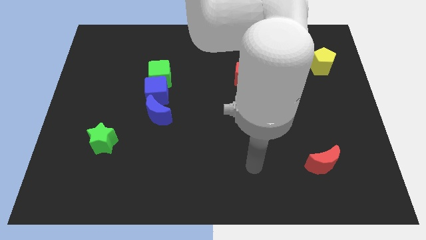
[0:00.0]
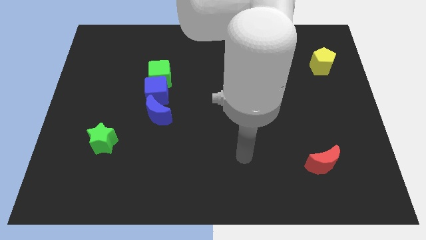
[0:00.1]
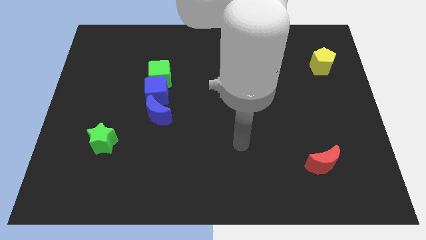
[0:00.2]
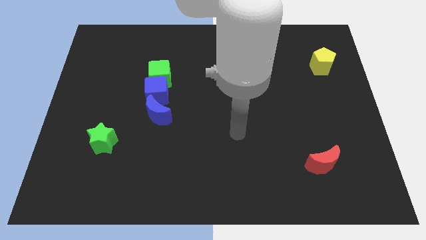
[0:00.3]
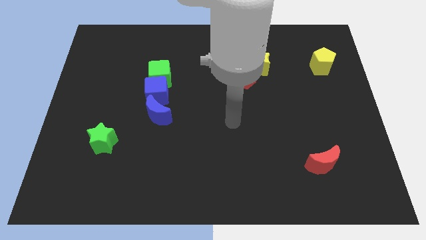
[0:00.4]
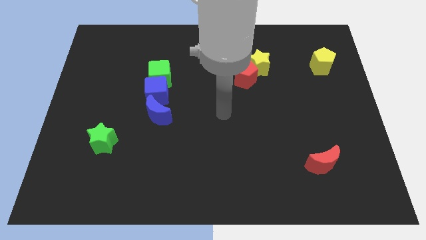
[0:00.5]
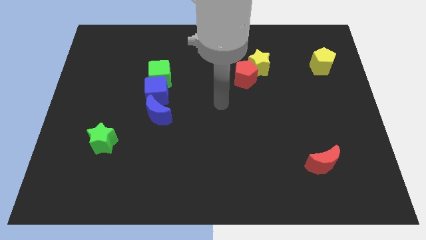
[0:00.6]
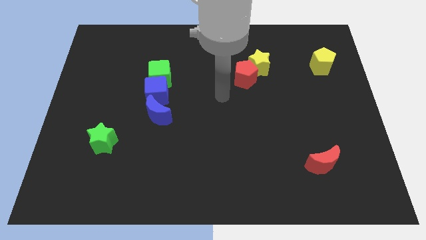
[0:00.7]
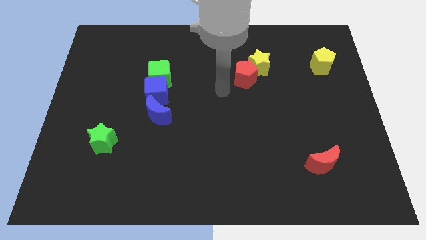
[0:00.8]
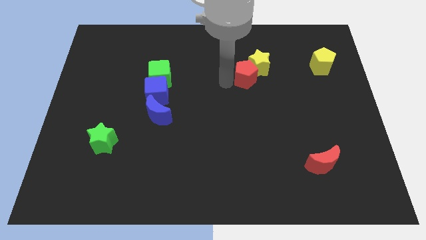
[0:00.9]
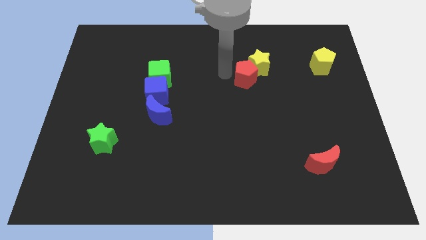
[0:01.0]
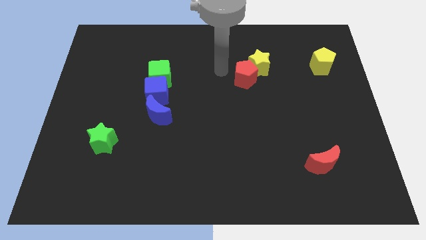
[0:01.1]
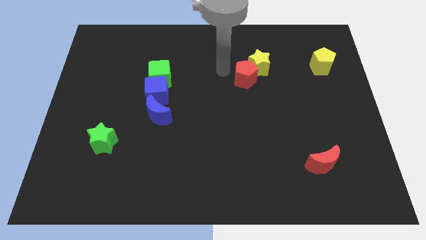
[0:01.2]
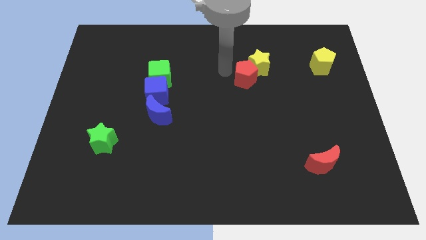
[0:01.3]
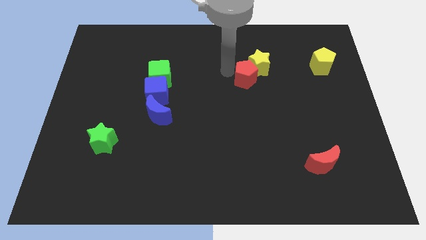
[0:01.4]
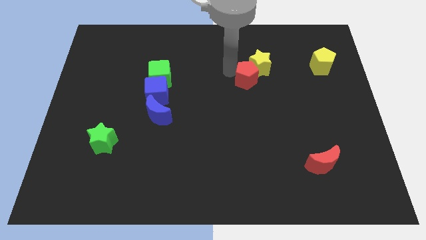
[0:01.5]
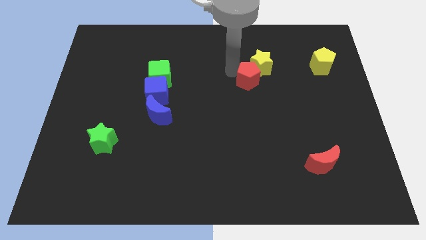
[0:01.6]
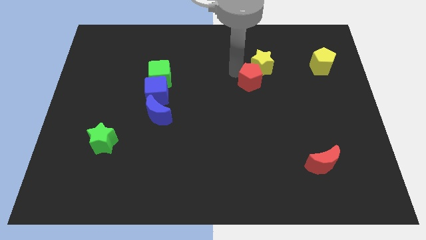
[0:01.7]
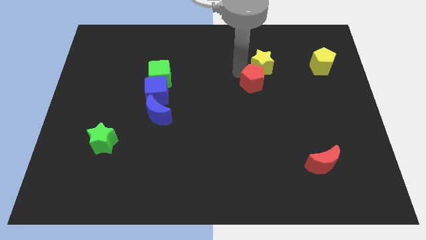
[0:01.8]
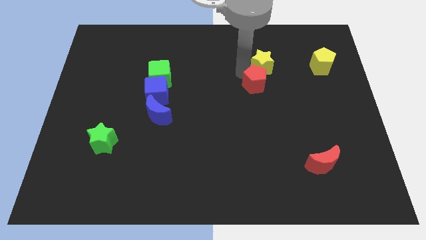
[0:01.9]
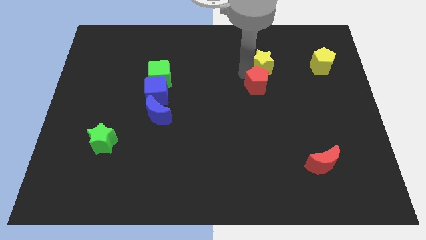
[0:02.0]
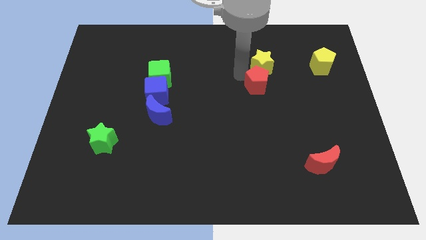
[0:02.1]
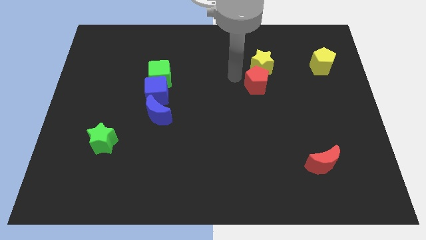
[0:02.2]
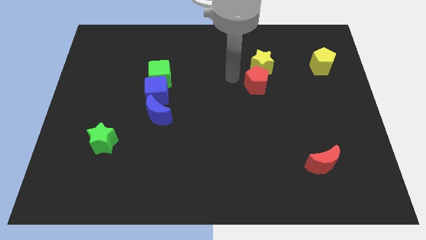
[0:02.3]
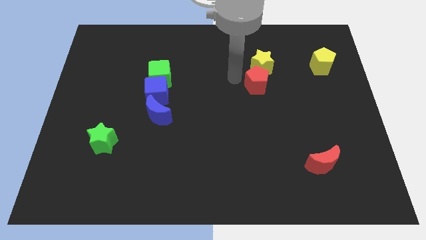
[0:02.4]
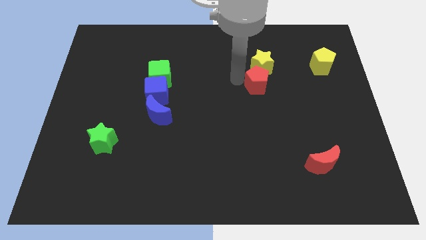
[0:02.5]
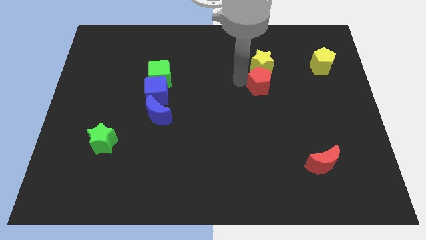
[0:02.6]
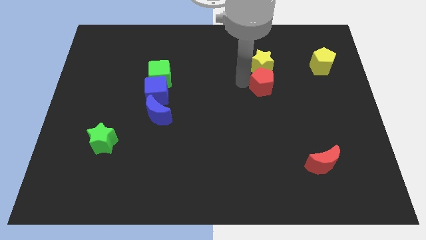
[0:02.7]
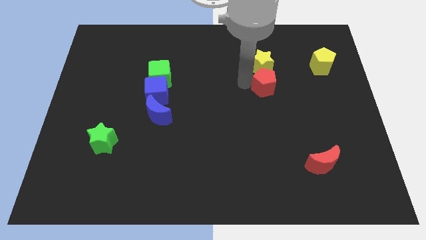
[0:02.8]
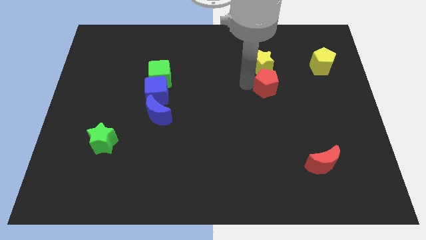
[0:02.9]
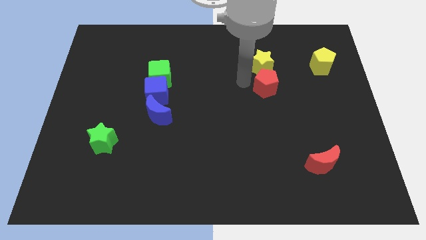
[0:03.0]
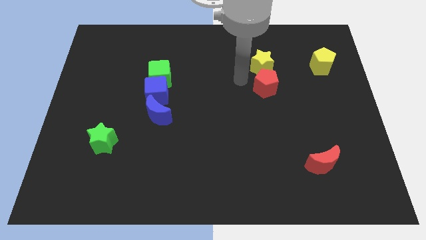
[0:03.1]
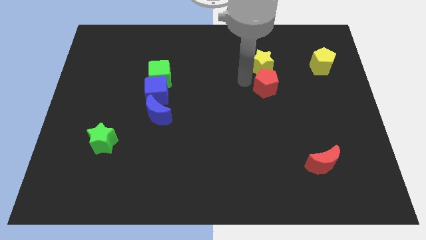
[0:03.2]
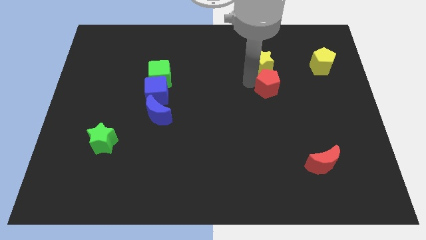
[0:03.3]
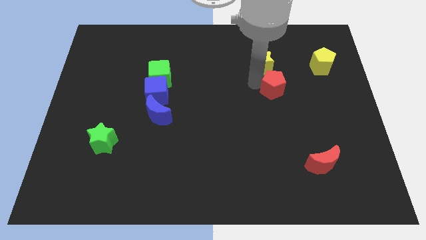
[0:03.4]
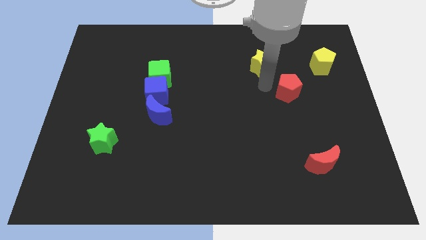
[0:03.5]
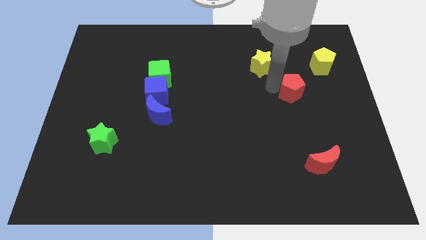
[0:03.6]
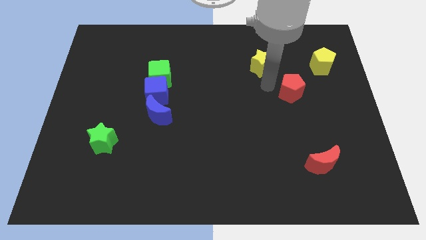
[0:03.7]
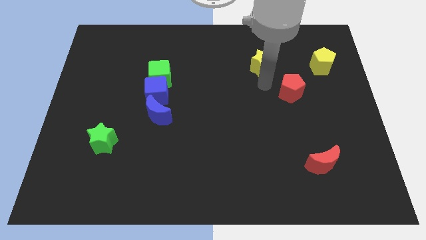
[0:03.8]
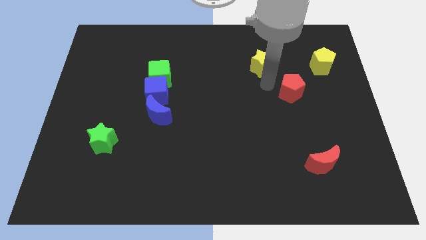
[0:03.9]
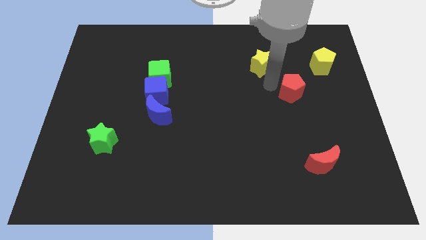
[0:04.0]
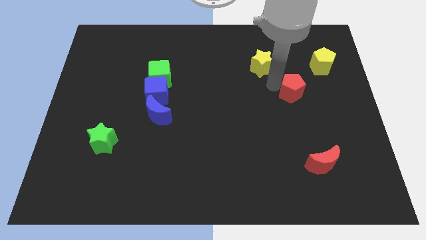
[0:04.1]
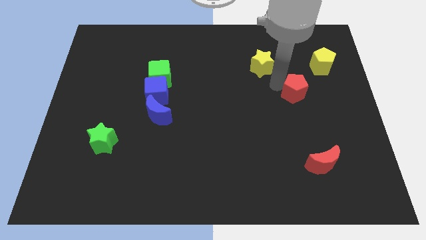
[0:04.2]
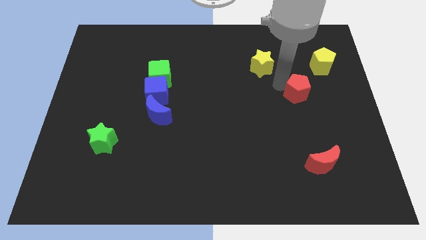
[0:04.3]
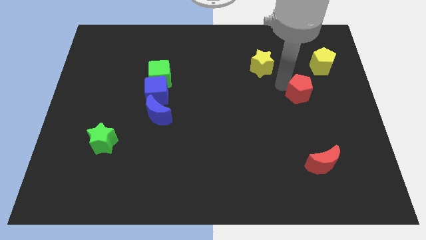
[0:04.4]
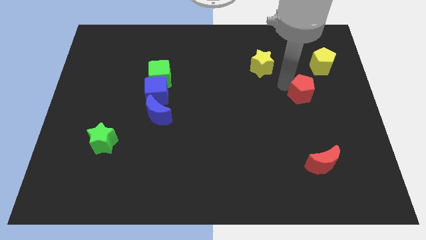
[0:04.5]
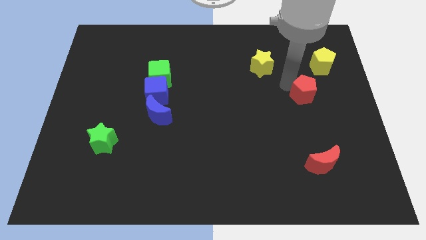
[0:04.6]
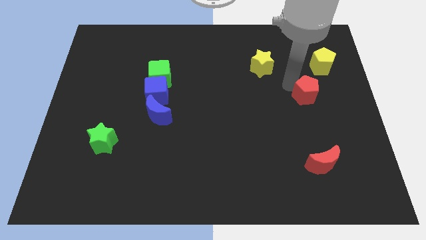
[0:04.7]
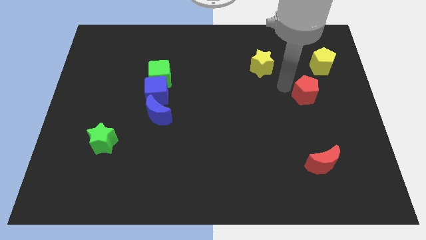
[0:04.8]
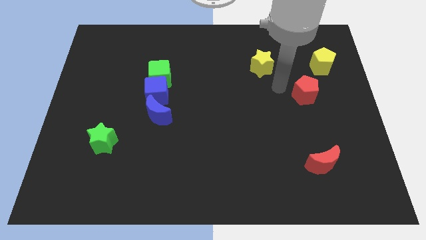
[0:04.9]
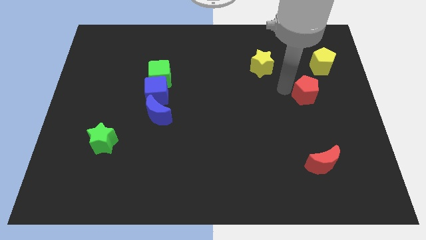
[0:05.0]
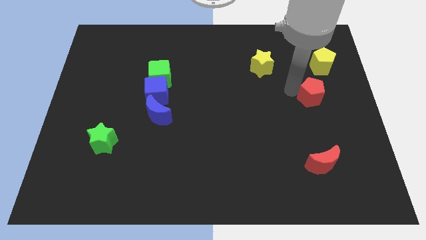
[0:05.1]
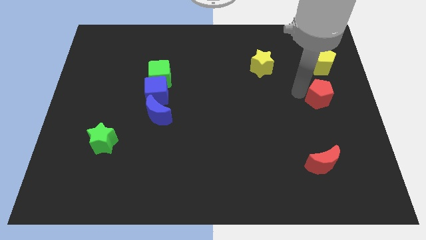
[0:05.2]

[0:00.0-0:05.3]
push the red pentagon to the right side of the board

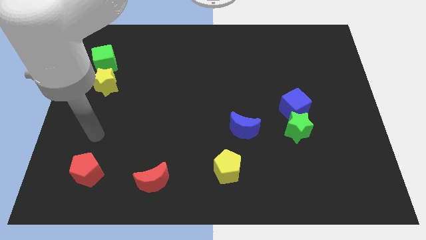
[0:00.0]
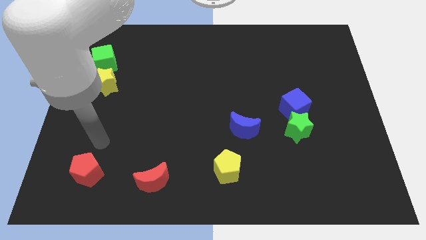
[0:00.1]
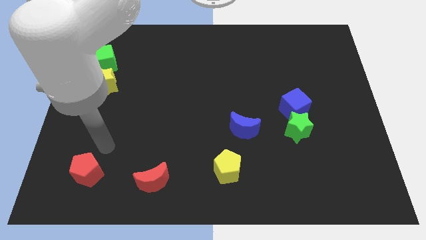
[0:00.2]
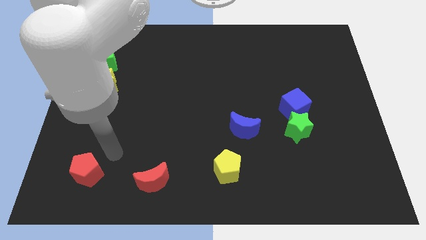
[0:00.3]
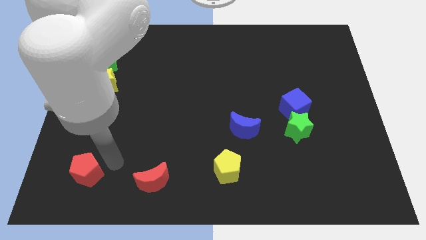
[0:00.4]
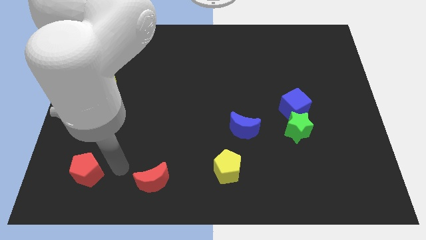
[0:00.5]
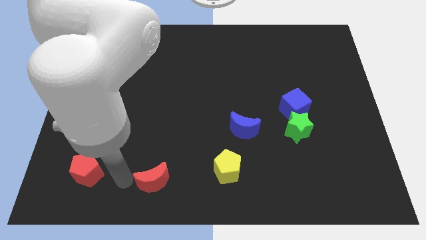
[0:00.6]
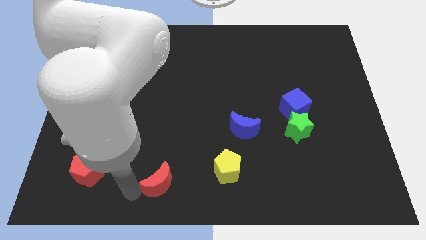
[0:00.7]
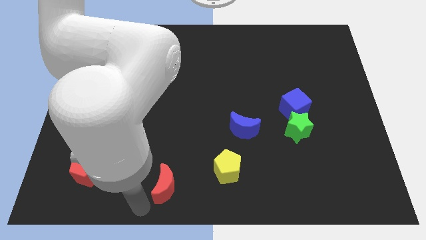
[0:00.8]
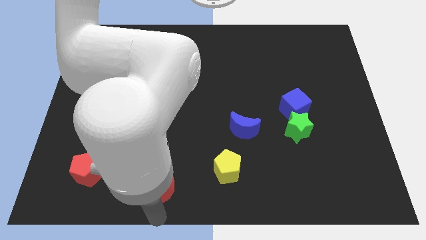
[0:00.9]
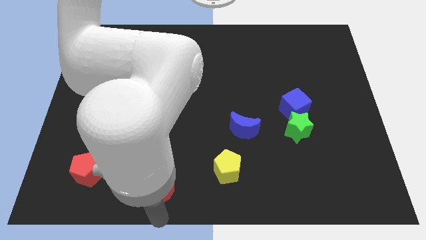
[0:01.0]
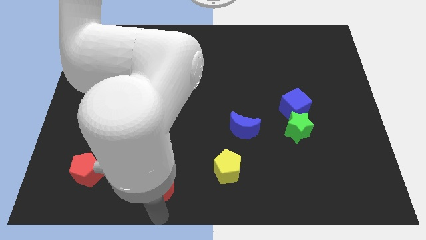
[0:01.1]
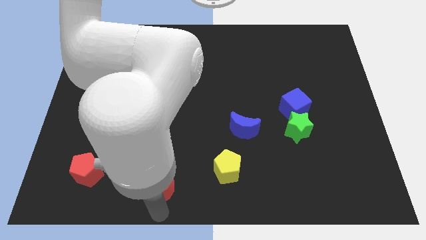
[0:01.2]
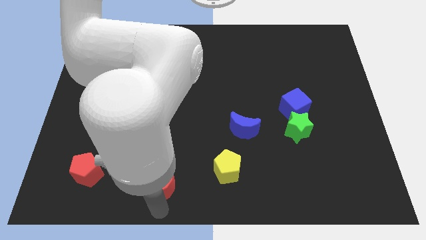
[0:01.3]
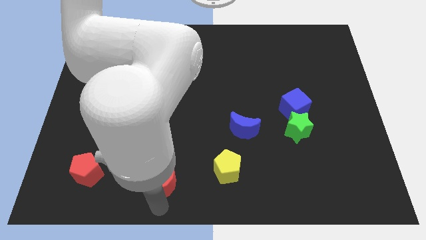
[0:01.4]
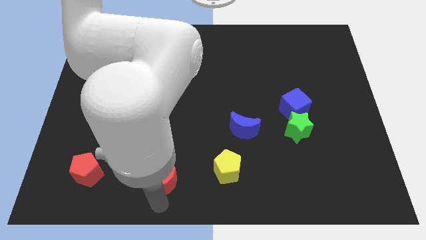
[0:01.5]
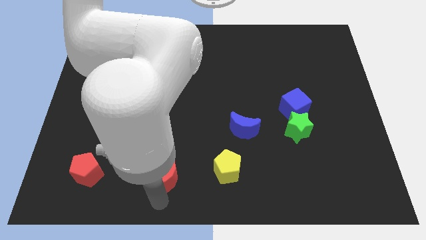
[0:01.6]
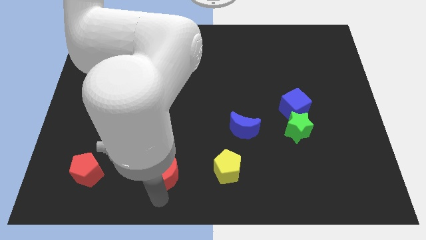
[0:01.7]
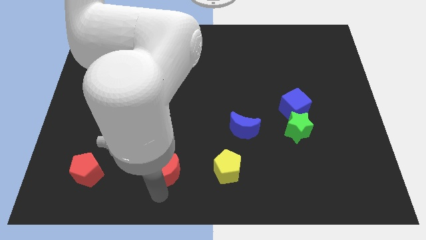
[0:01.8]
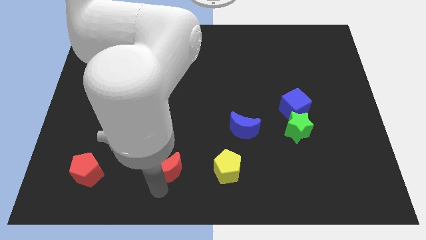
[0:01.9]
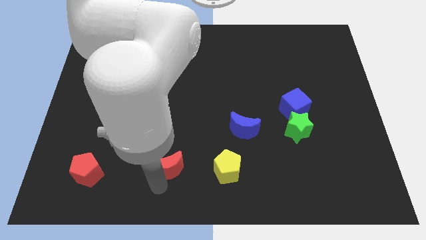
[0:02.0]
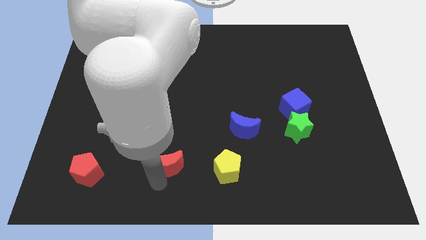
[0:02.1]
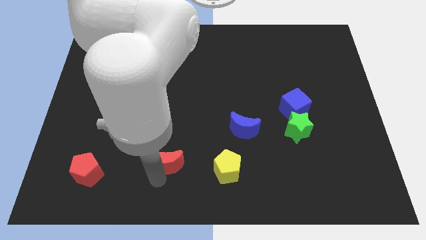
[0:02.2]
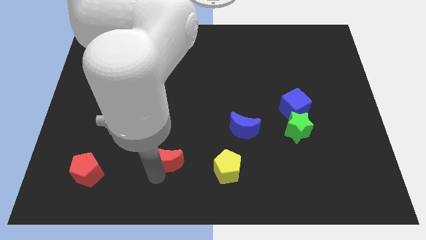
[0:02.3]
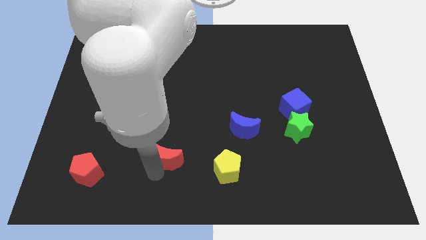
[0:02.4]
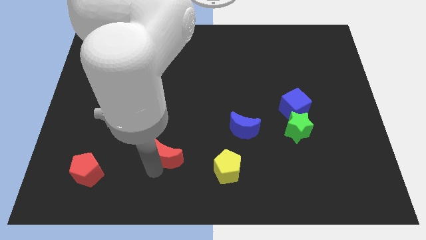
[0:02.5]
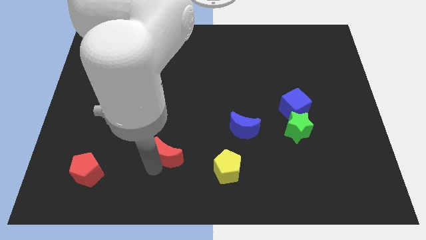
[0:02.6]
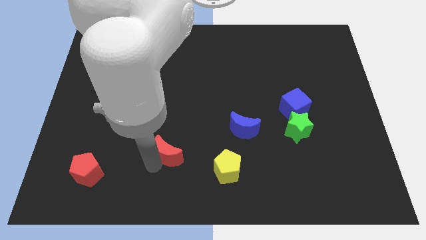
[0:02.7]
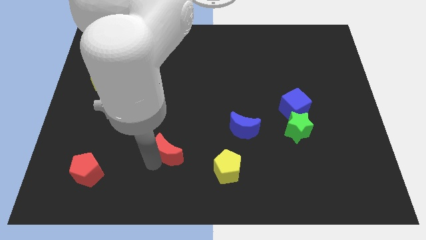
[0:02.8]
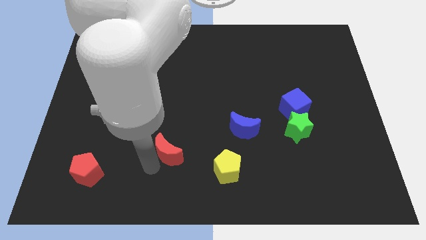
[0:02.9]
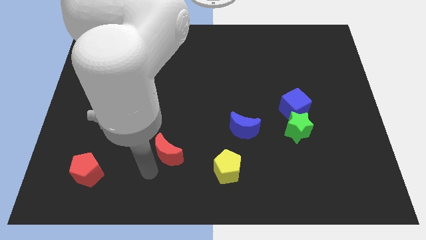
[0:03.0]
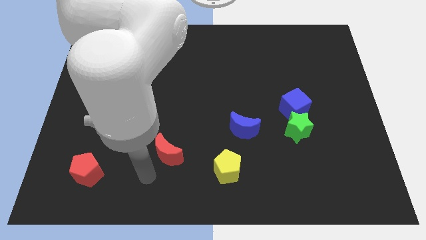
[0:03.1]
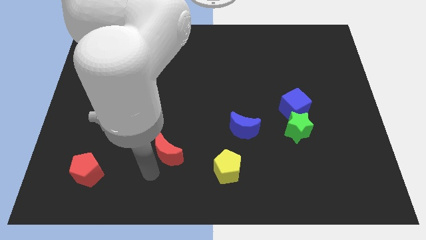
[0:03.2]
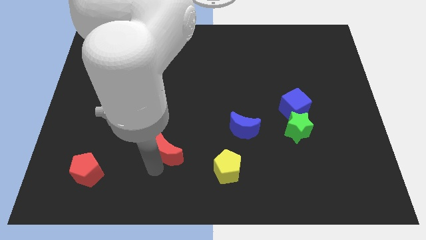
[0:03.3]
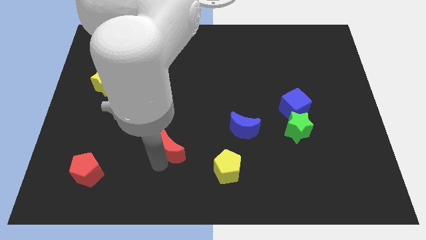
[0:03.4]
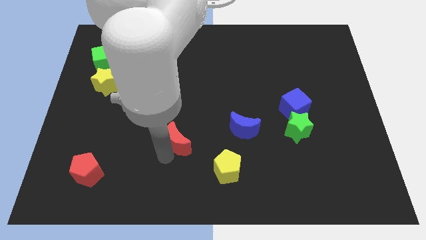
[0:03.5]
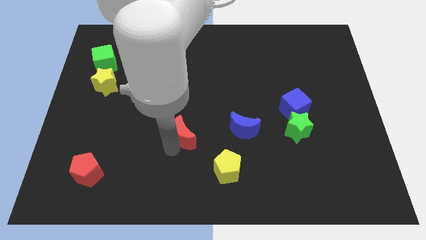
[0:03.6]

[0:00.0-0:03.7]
push the red moon to the center
